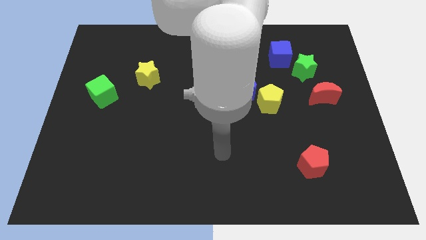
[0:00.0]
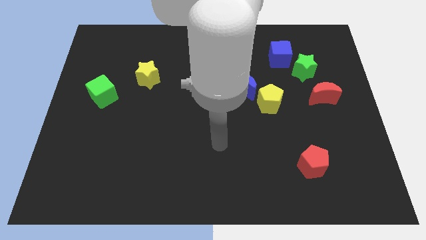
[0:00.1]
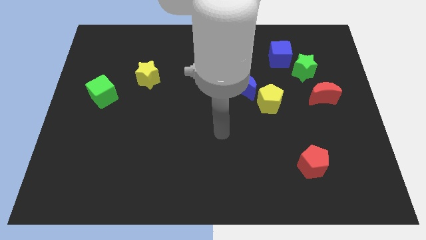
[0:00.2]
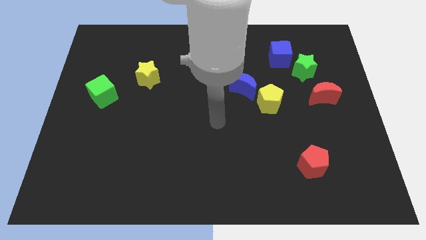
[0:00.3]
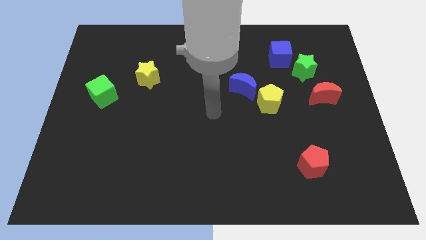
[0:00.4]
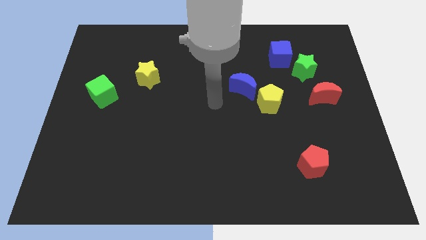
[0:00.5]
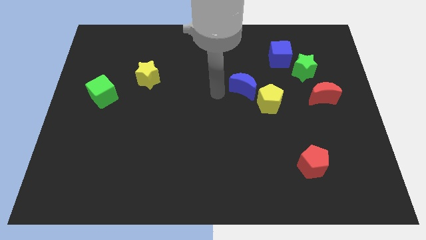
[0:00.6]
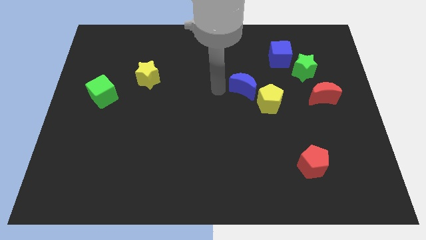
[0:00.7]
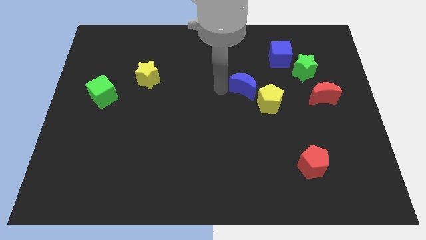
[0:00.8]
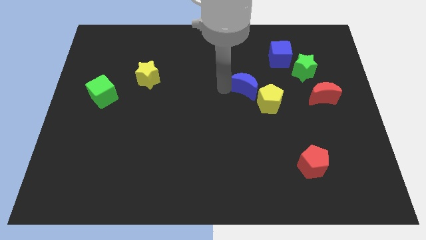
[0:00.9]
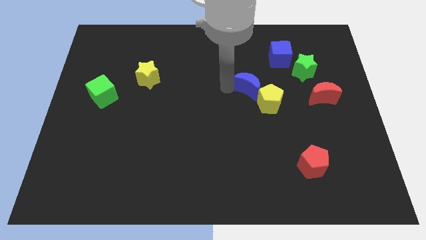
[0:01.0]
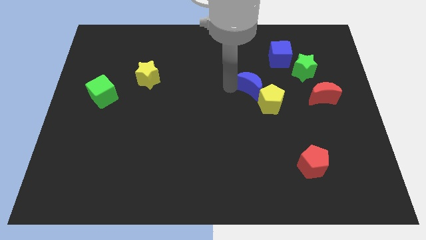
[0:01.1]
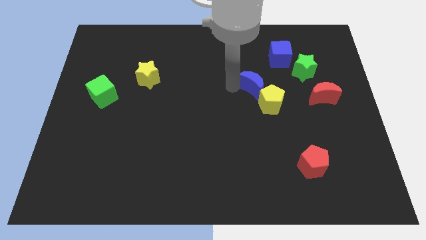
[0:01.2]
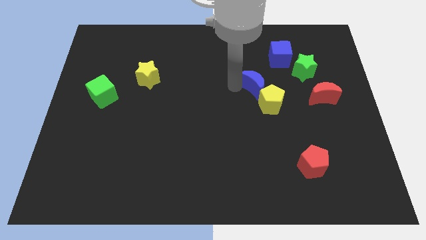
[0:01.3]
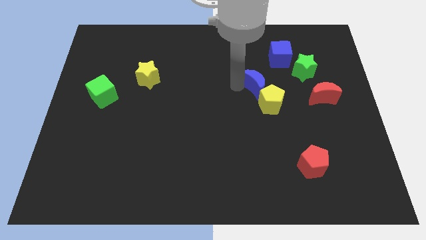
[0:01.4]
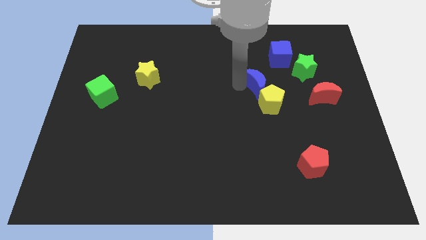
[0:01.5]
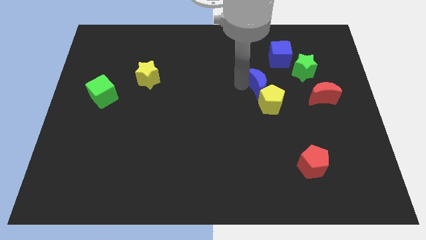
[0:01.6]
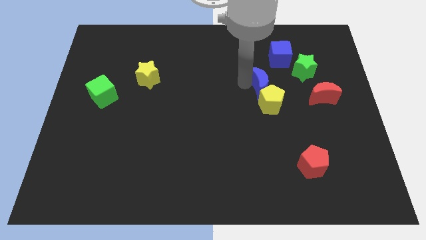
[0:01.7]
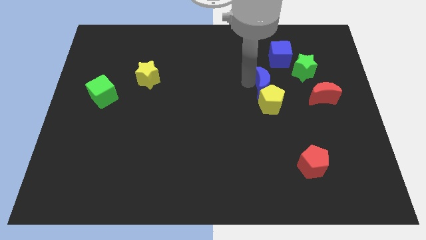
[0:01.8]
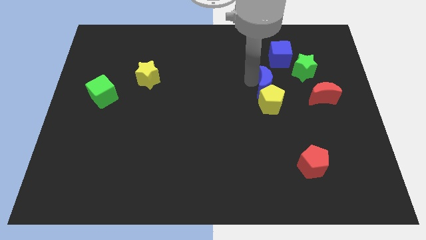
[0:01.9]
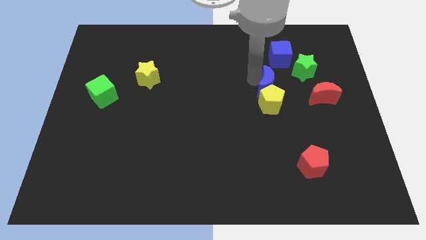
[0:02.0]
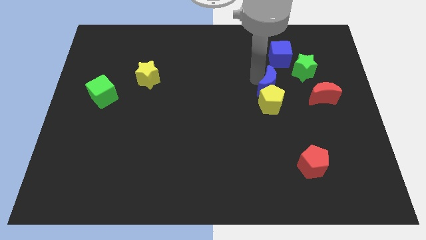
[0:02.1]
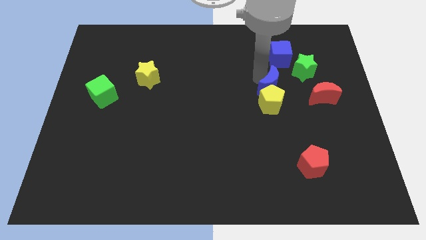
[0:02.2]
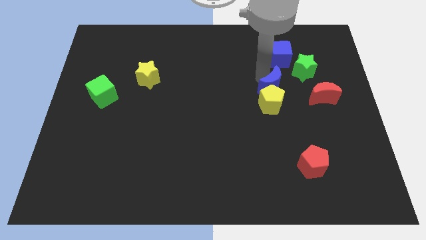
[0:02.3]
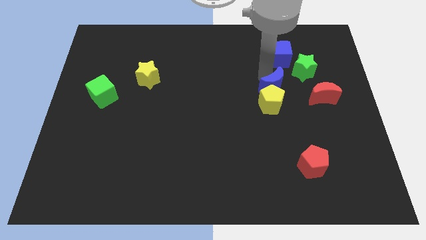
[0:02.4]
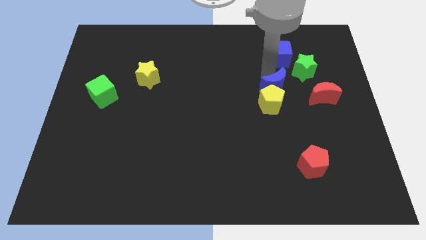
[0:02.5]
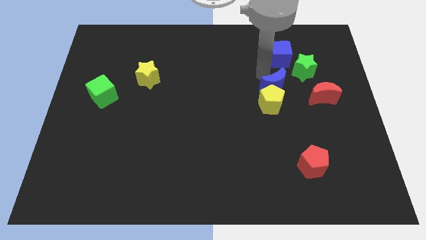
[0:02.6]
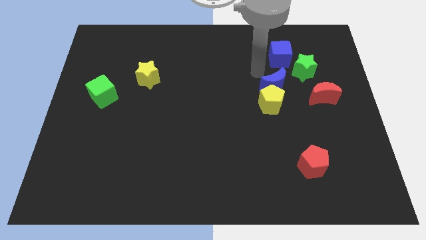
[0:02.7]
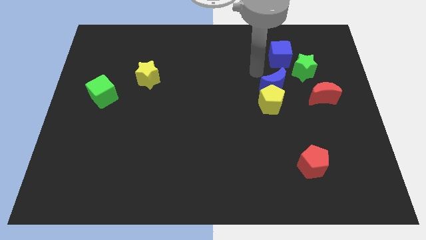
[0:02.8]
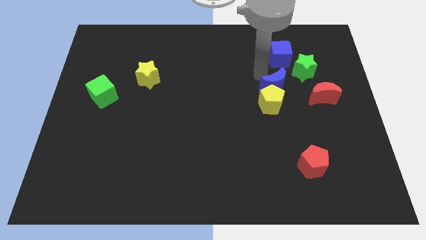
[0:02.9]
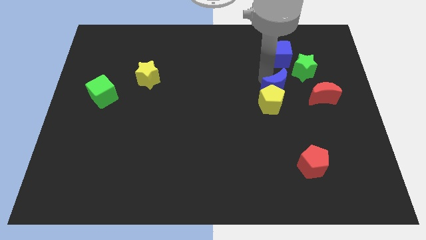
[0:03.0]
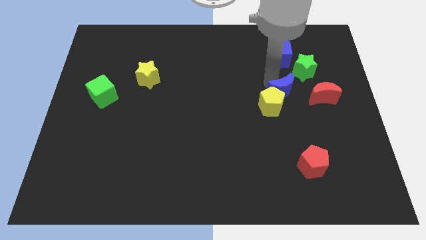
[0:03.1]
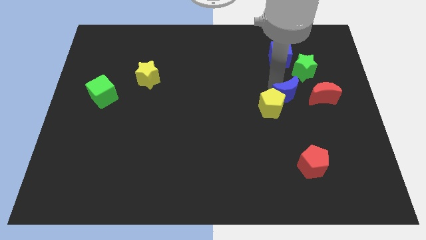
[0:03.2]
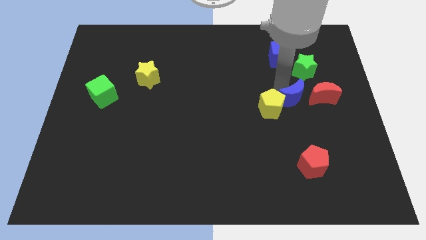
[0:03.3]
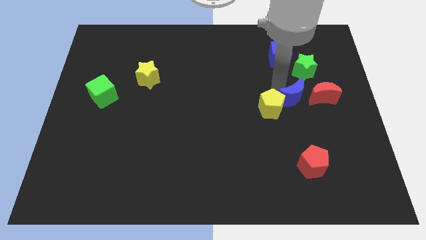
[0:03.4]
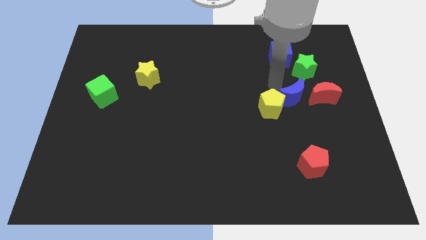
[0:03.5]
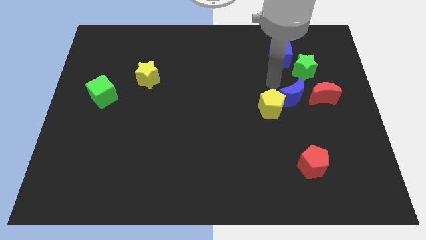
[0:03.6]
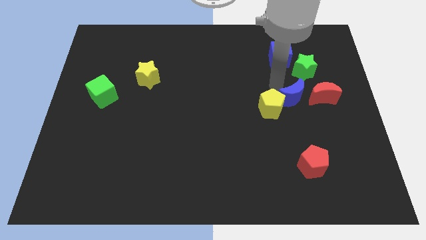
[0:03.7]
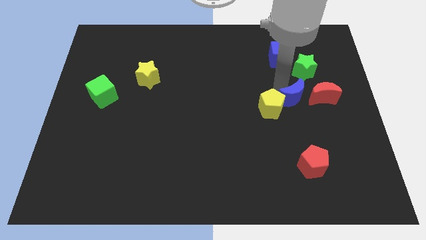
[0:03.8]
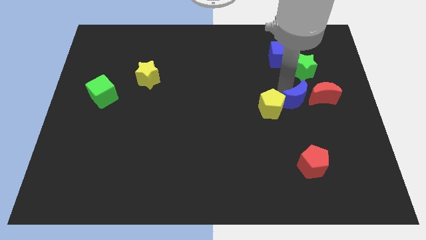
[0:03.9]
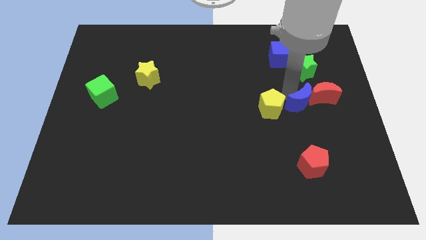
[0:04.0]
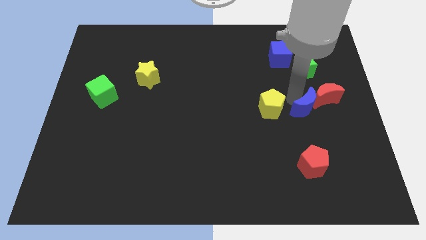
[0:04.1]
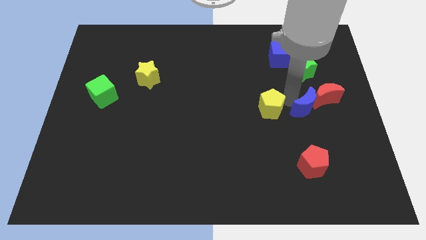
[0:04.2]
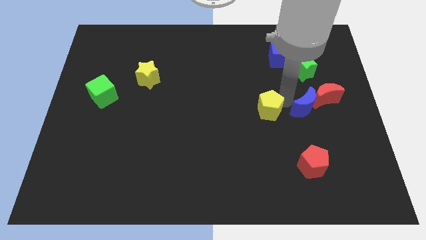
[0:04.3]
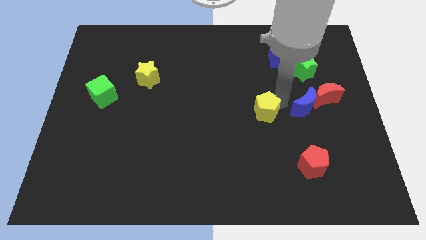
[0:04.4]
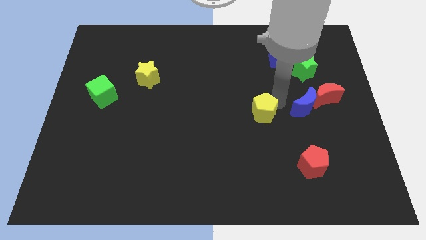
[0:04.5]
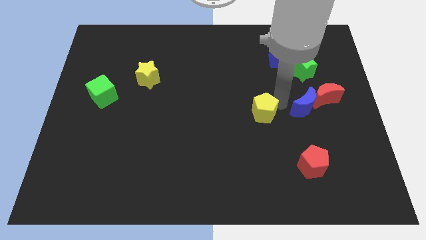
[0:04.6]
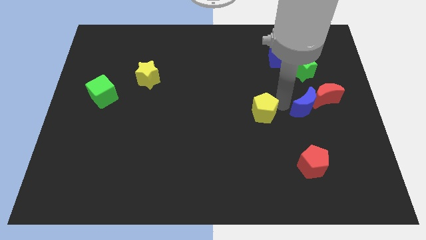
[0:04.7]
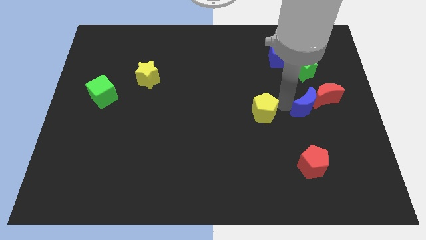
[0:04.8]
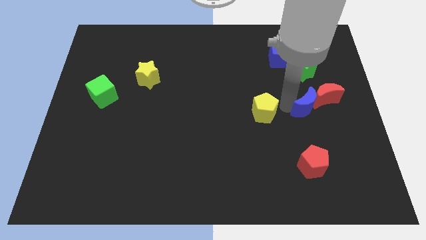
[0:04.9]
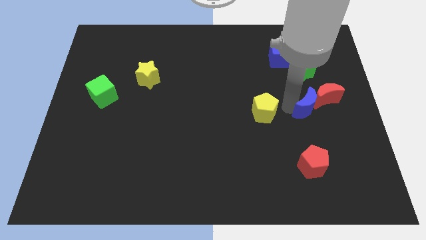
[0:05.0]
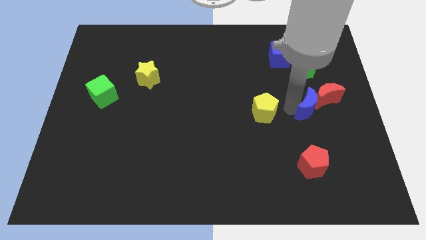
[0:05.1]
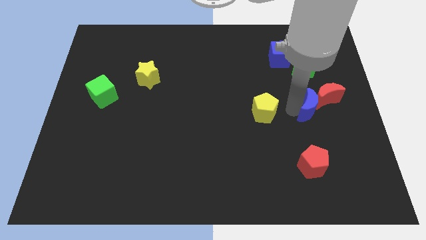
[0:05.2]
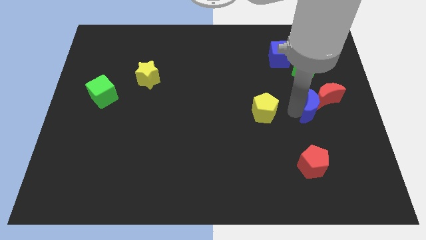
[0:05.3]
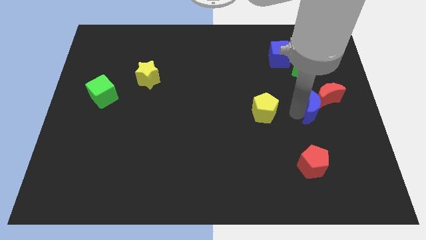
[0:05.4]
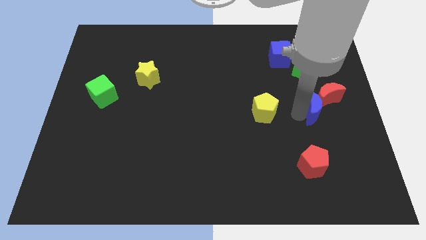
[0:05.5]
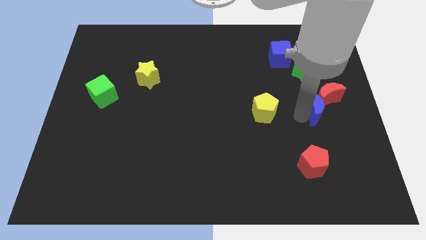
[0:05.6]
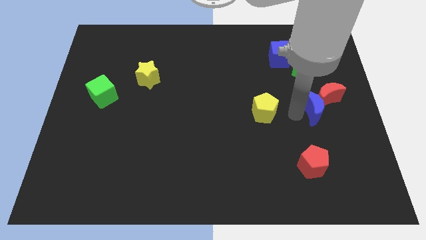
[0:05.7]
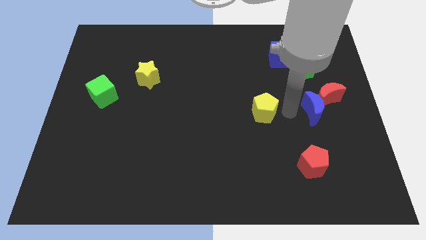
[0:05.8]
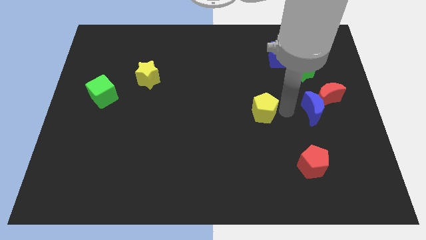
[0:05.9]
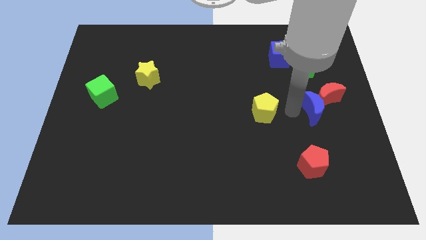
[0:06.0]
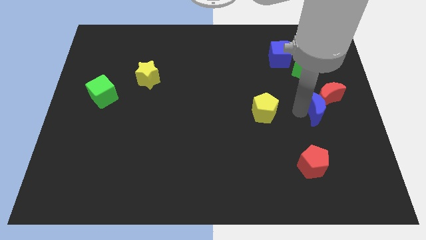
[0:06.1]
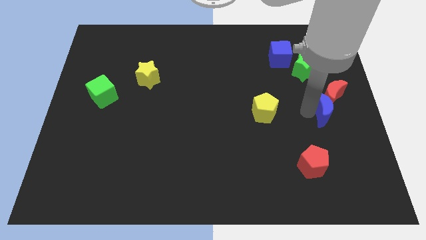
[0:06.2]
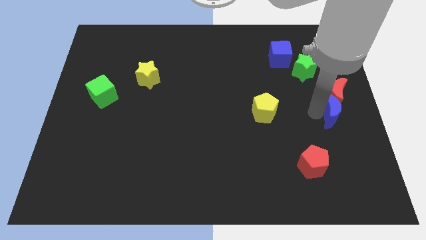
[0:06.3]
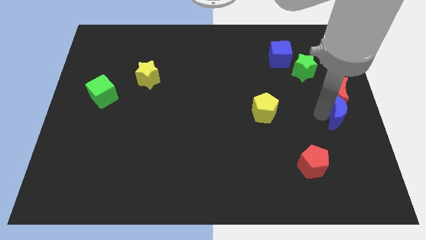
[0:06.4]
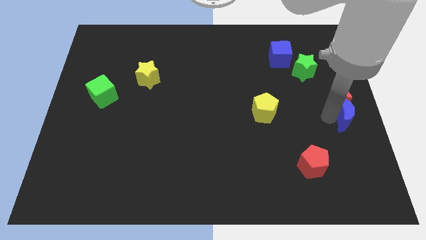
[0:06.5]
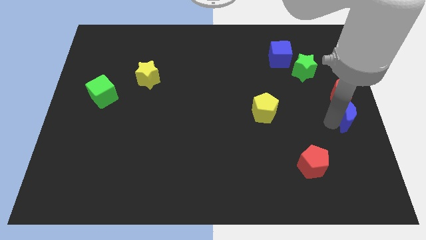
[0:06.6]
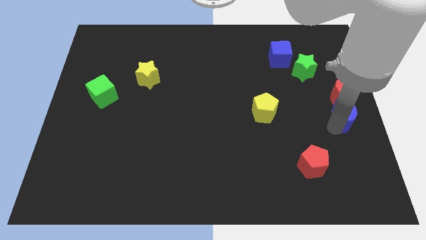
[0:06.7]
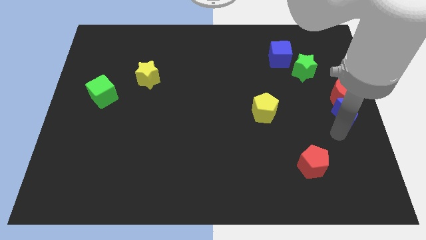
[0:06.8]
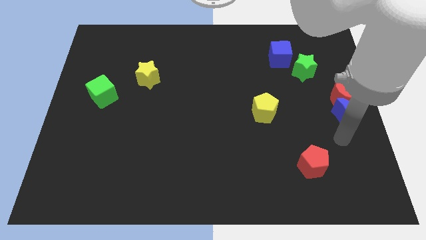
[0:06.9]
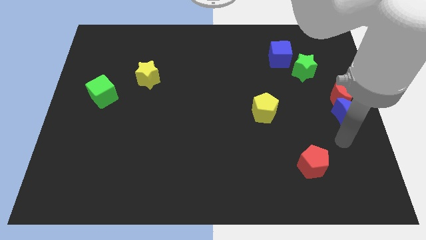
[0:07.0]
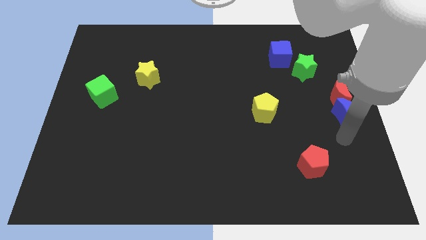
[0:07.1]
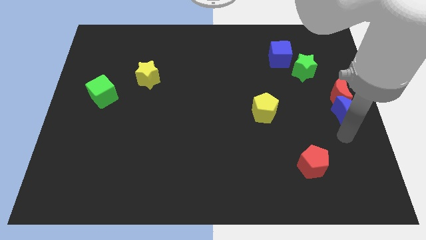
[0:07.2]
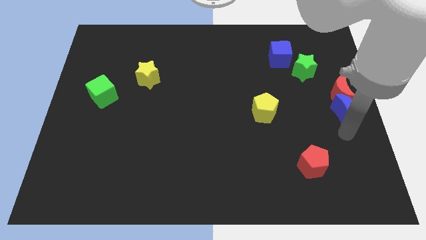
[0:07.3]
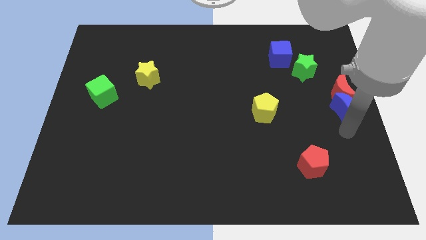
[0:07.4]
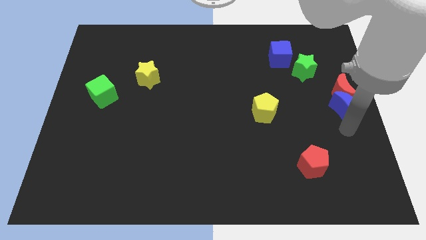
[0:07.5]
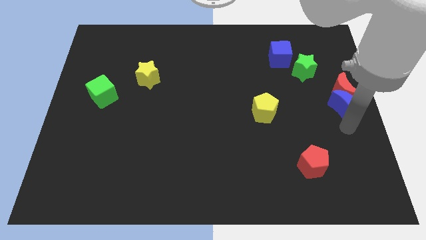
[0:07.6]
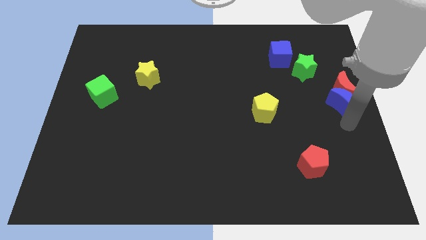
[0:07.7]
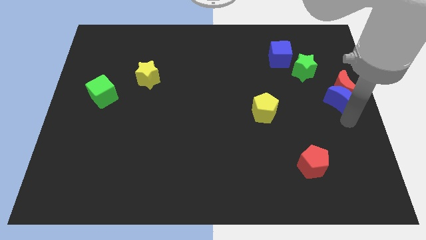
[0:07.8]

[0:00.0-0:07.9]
put the blue moon to the bottom right side of the green star
